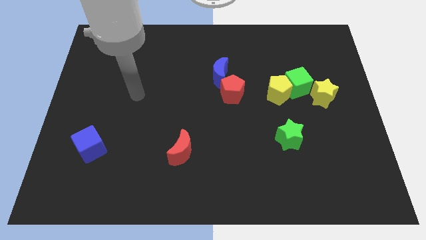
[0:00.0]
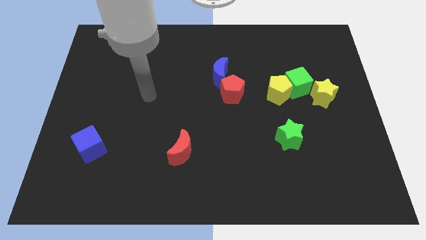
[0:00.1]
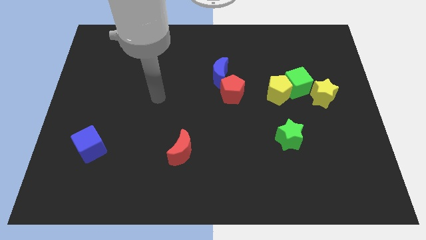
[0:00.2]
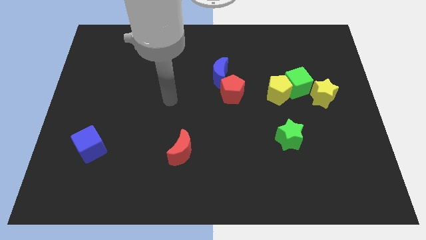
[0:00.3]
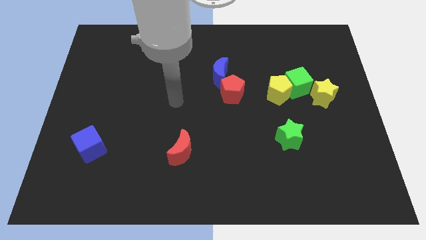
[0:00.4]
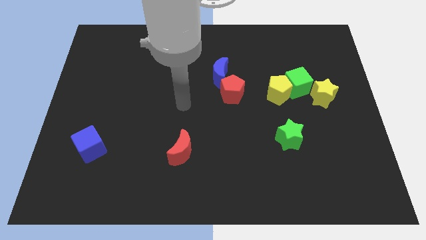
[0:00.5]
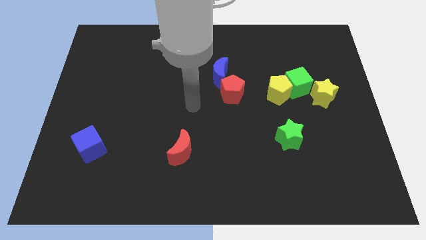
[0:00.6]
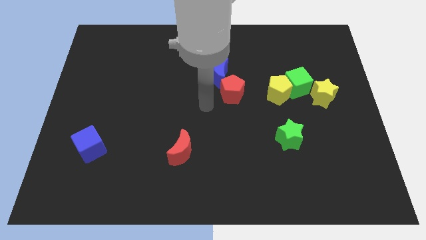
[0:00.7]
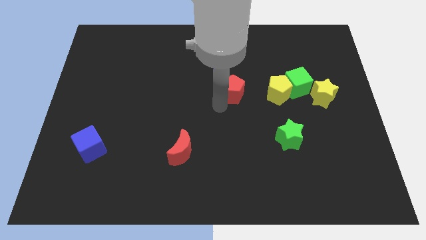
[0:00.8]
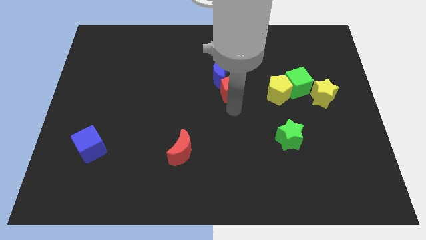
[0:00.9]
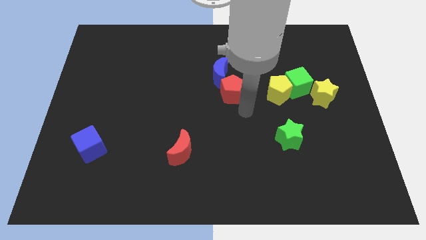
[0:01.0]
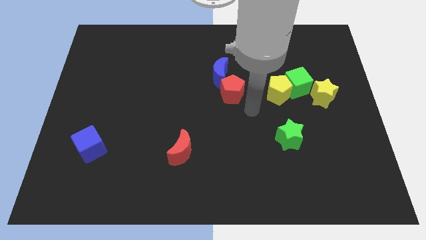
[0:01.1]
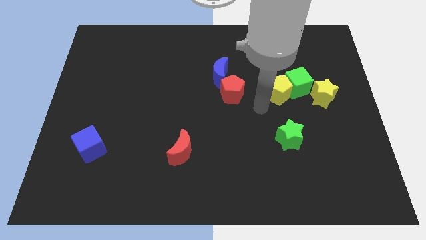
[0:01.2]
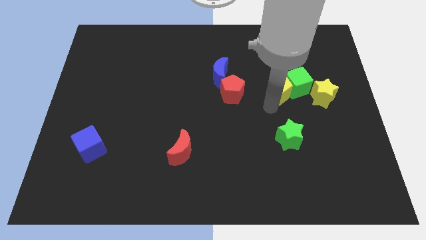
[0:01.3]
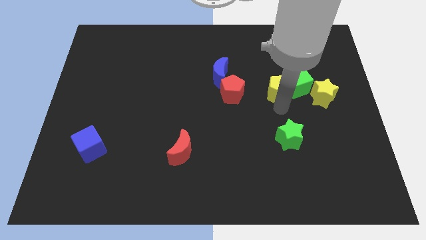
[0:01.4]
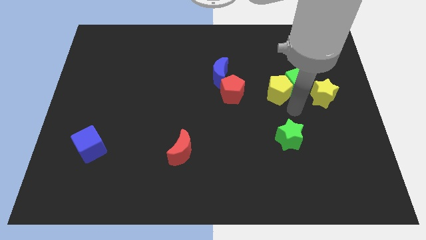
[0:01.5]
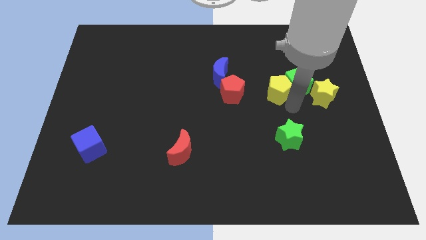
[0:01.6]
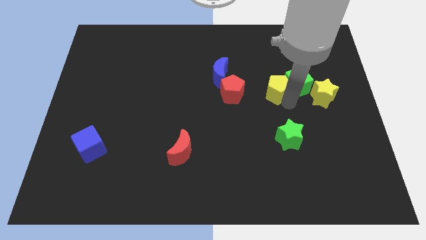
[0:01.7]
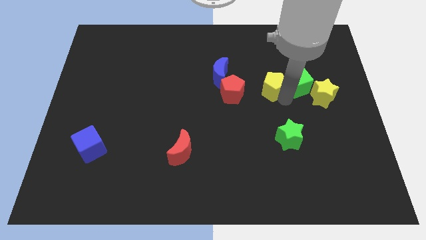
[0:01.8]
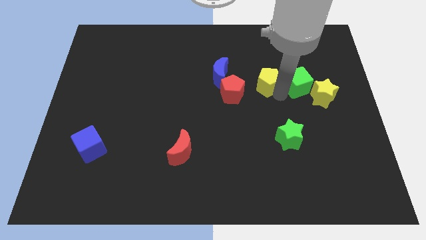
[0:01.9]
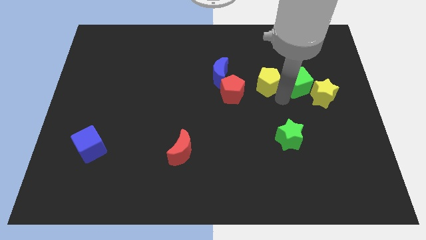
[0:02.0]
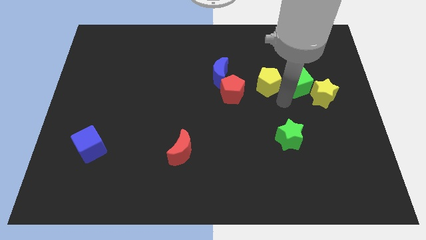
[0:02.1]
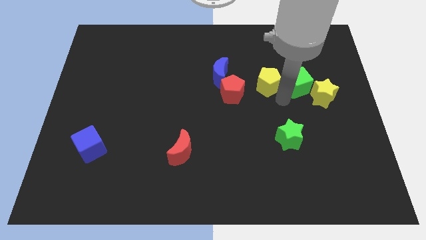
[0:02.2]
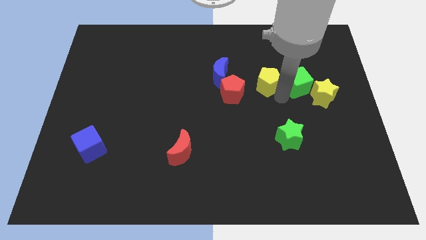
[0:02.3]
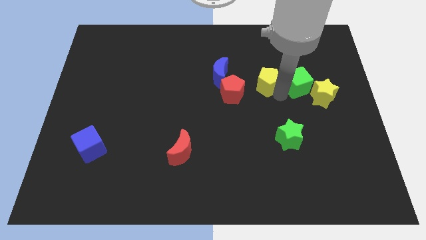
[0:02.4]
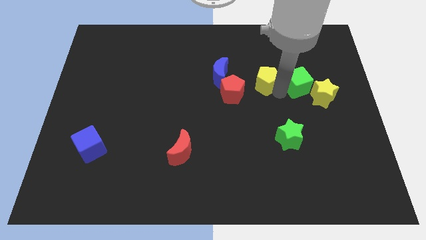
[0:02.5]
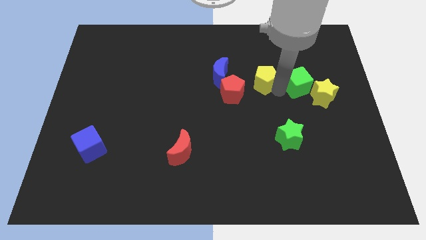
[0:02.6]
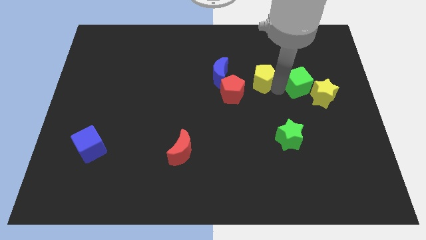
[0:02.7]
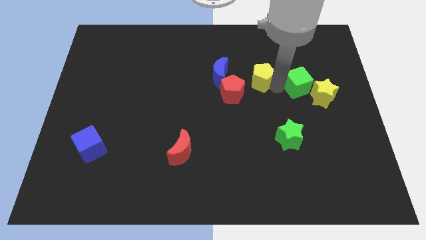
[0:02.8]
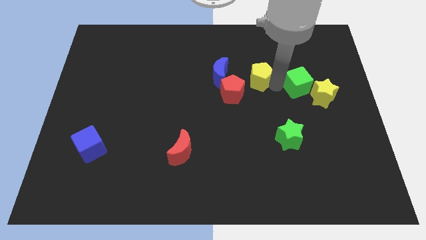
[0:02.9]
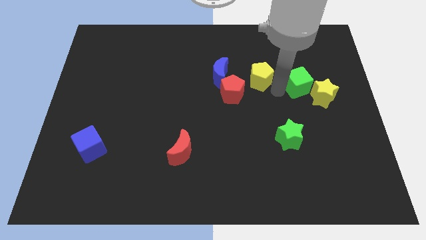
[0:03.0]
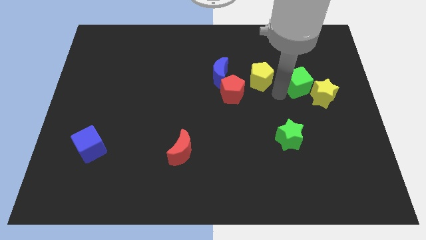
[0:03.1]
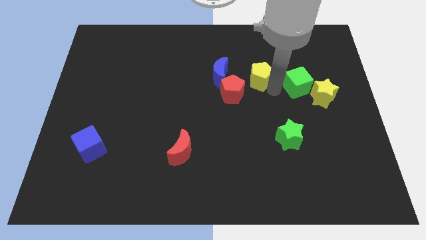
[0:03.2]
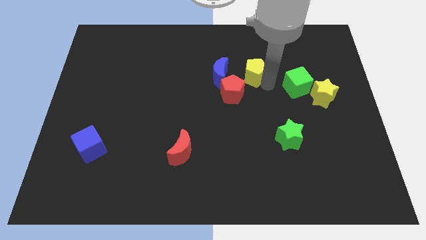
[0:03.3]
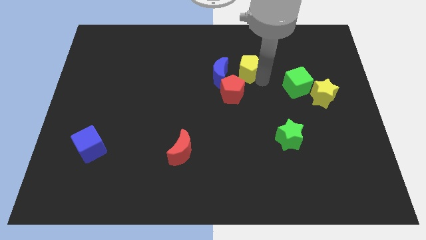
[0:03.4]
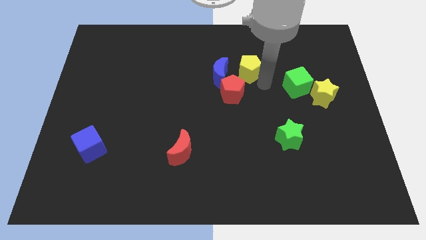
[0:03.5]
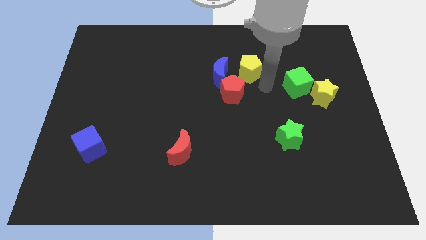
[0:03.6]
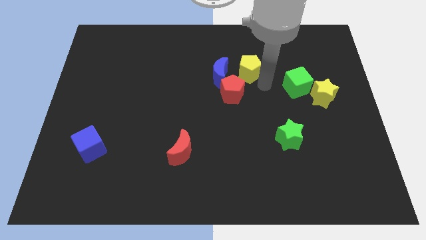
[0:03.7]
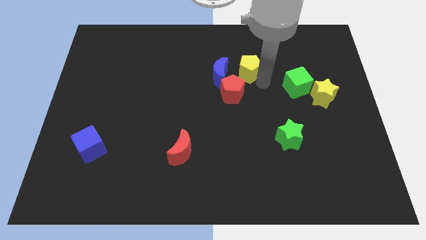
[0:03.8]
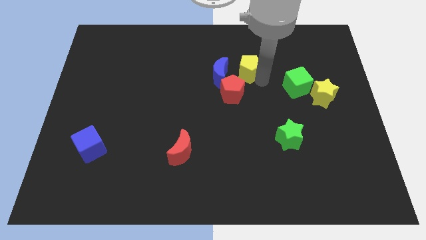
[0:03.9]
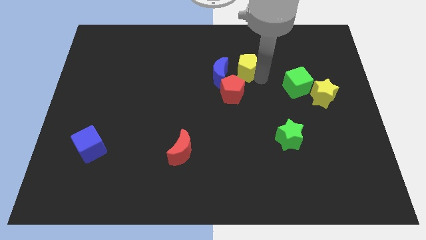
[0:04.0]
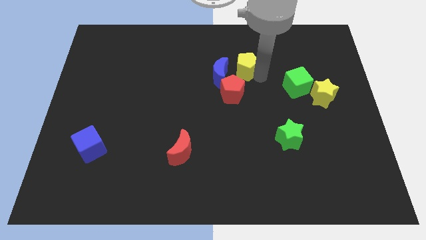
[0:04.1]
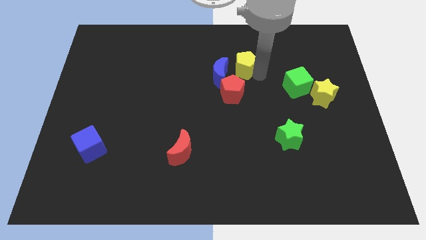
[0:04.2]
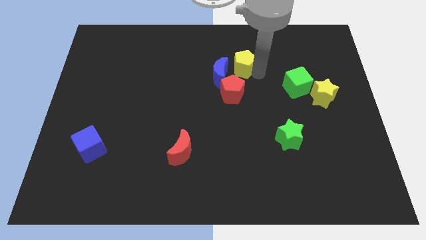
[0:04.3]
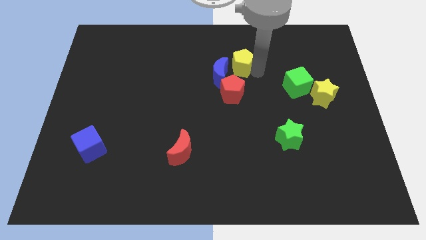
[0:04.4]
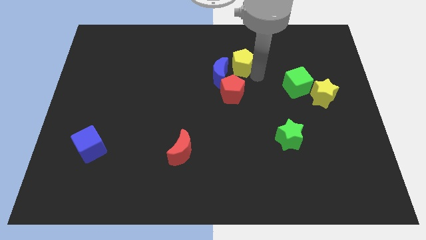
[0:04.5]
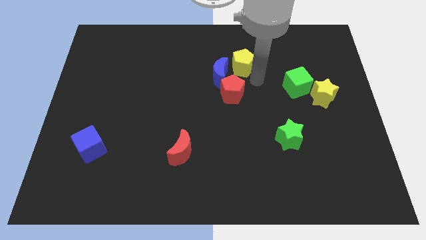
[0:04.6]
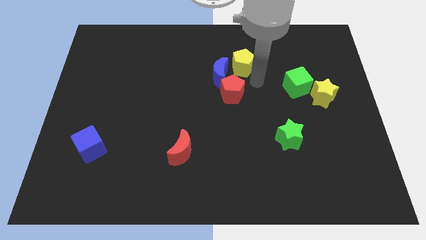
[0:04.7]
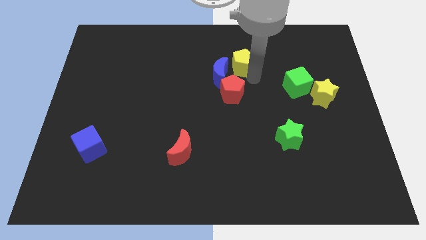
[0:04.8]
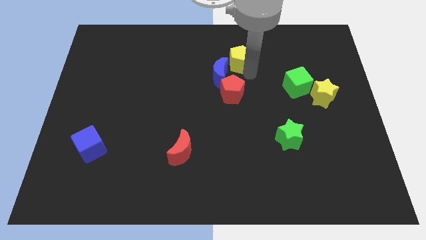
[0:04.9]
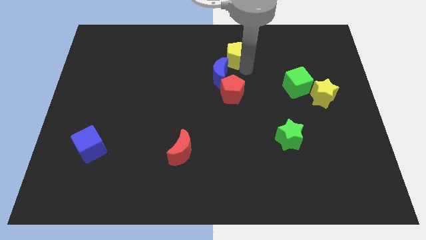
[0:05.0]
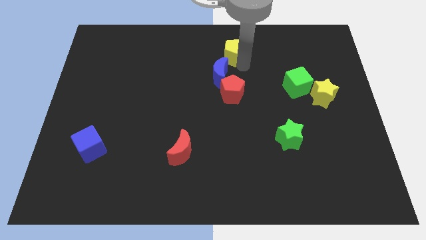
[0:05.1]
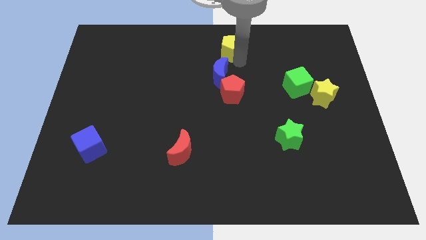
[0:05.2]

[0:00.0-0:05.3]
slide the yellow pentagon to the top

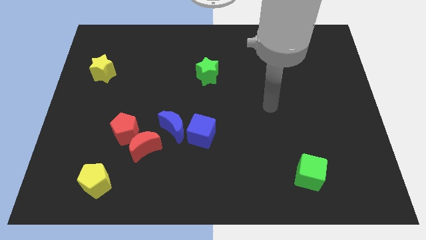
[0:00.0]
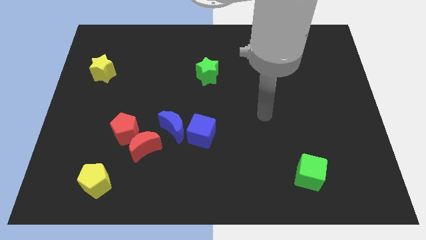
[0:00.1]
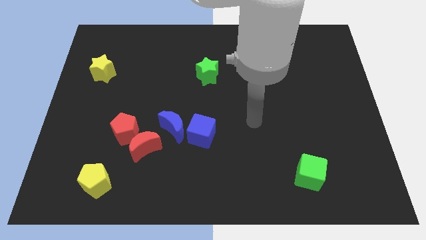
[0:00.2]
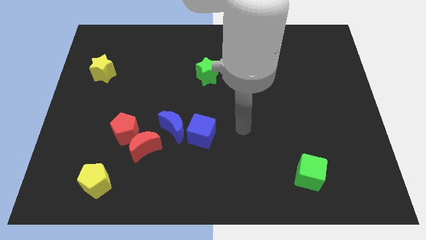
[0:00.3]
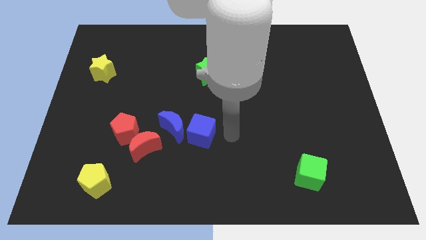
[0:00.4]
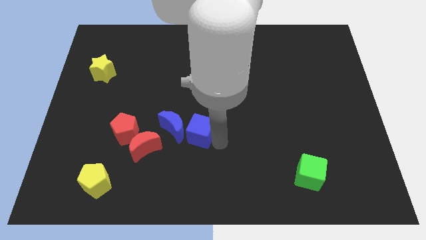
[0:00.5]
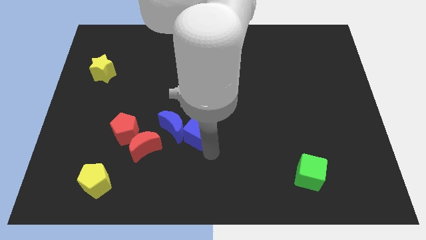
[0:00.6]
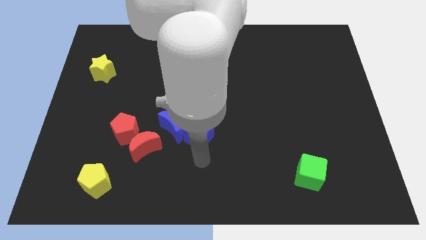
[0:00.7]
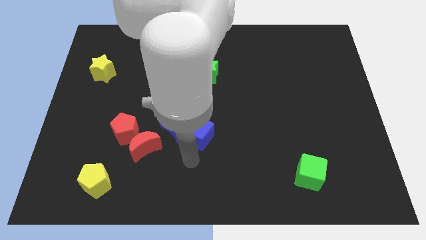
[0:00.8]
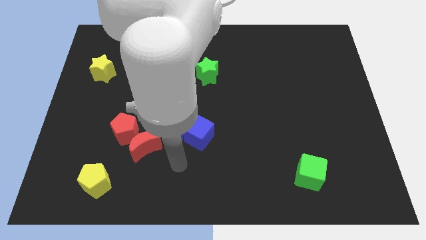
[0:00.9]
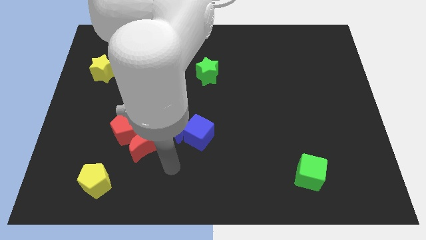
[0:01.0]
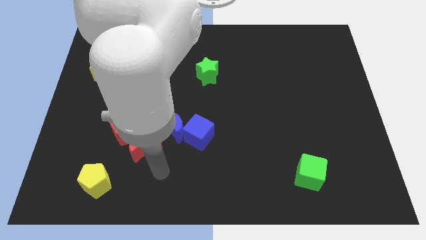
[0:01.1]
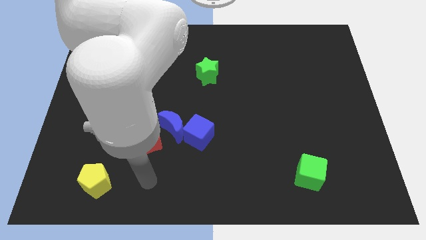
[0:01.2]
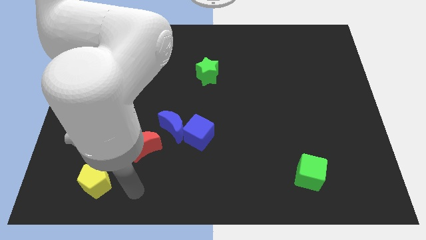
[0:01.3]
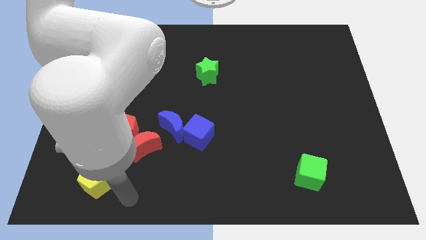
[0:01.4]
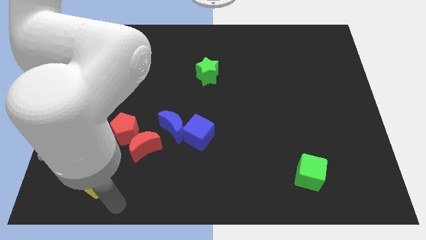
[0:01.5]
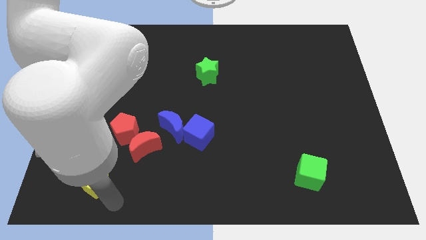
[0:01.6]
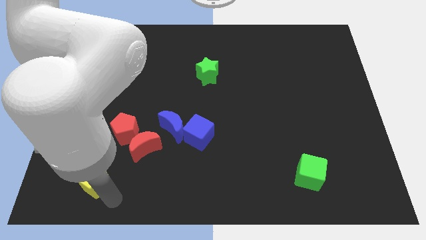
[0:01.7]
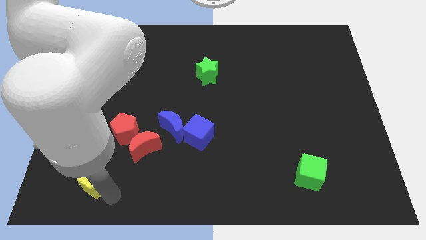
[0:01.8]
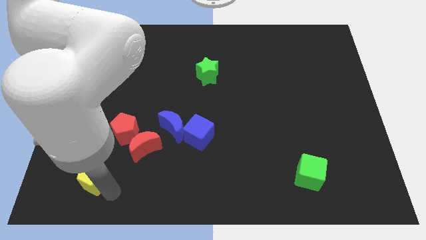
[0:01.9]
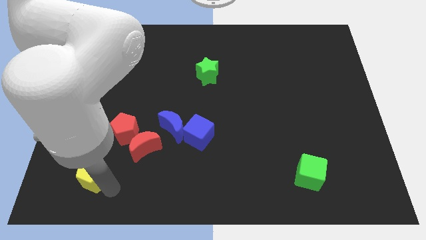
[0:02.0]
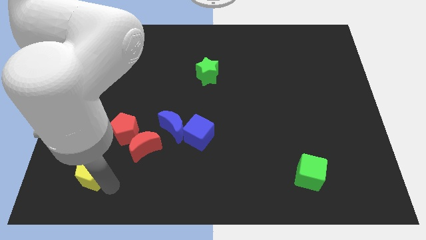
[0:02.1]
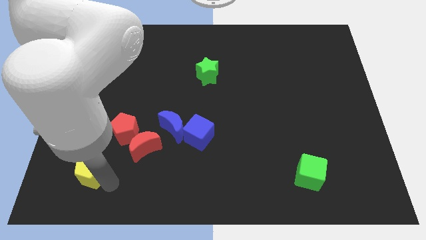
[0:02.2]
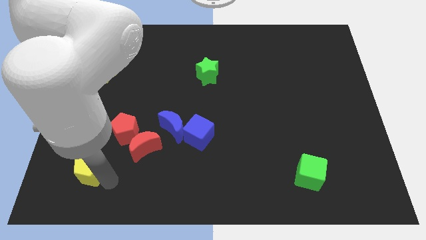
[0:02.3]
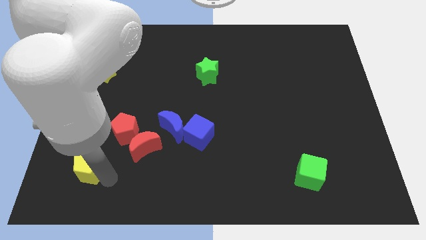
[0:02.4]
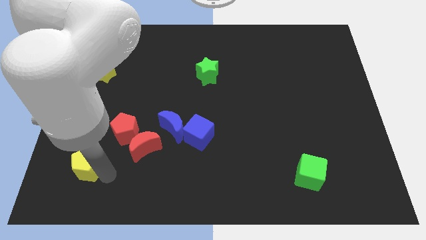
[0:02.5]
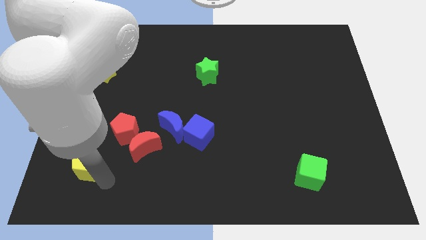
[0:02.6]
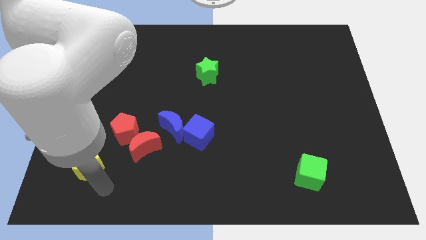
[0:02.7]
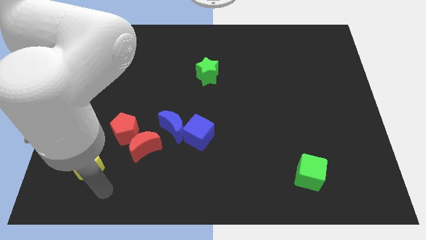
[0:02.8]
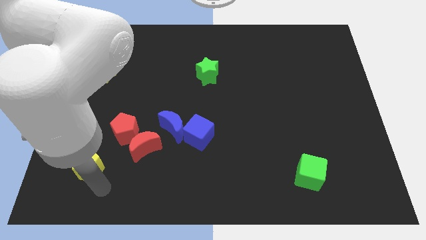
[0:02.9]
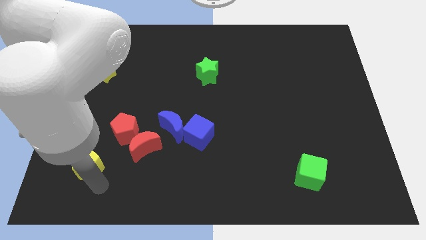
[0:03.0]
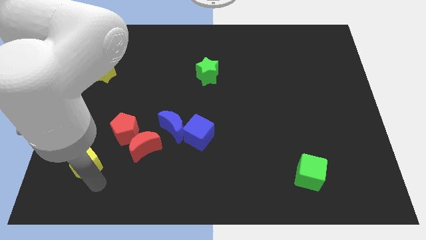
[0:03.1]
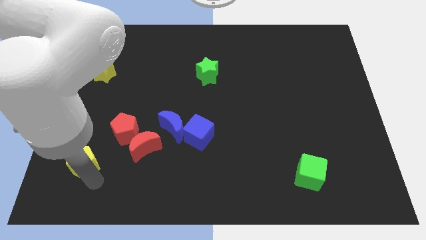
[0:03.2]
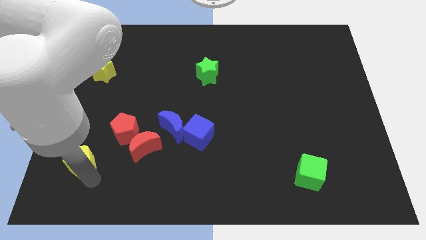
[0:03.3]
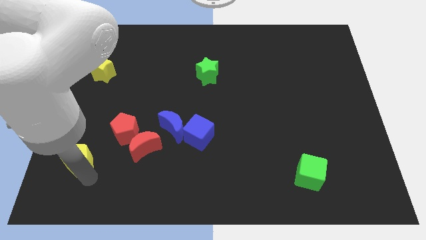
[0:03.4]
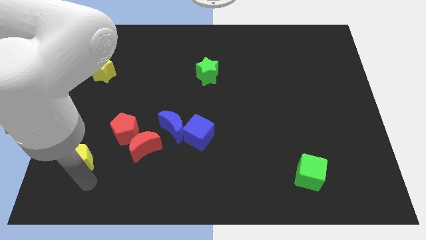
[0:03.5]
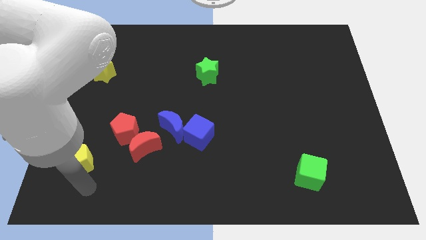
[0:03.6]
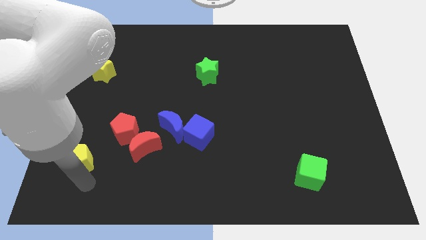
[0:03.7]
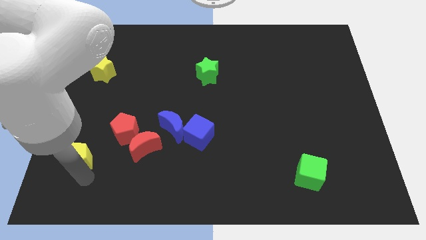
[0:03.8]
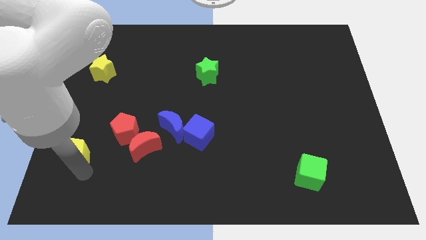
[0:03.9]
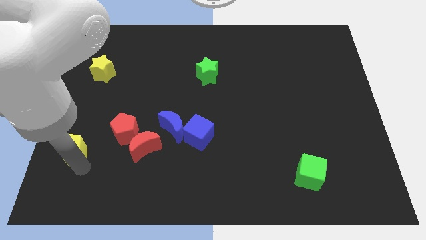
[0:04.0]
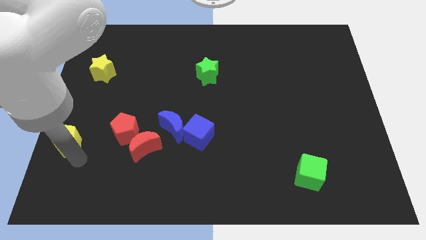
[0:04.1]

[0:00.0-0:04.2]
put the yellow pentagon to the left side
